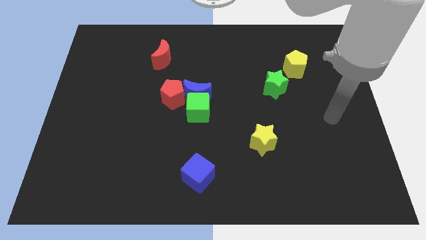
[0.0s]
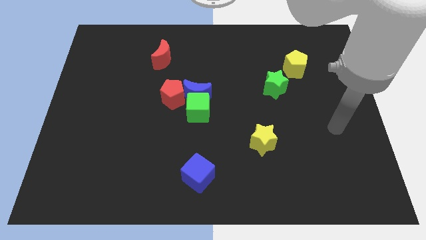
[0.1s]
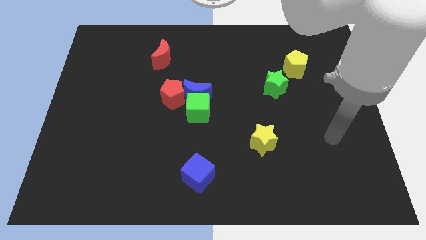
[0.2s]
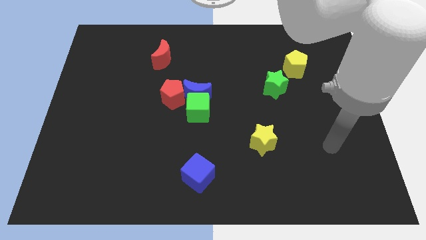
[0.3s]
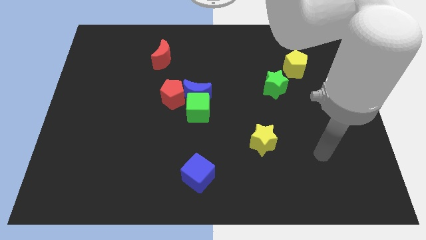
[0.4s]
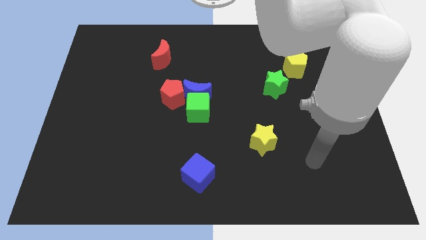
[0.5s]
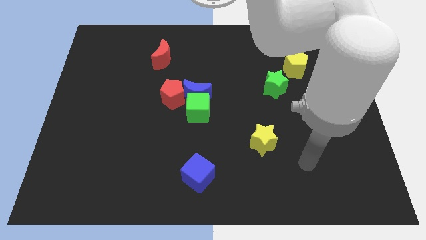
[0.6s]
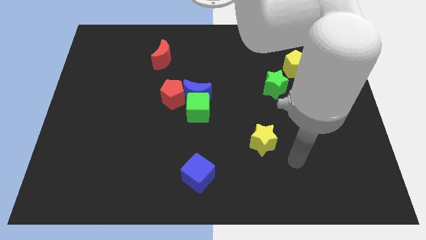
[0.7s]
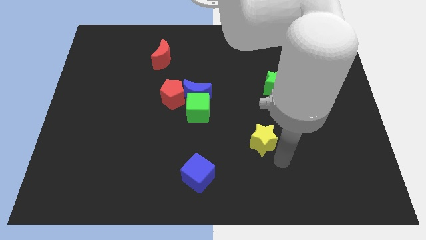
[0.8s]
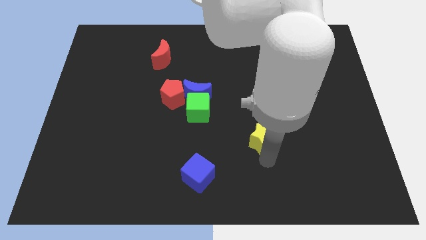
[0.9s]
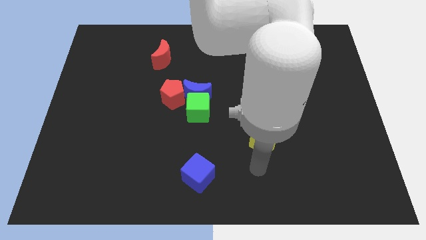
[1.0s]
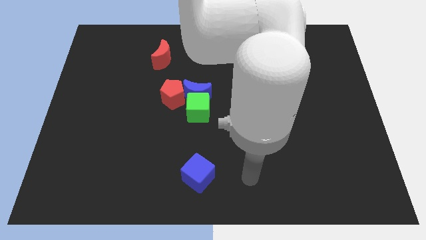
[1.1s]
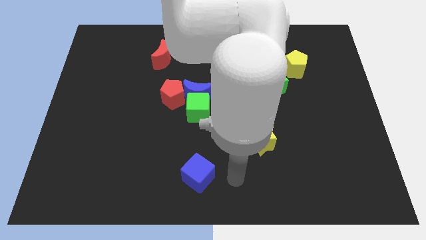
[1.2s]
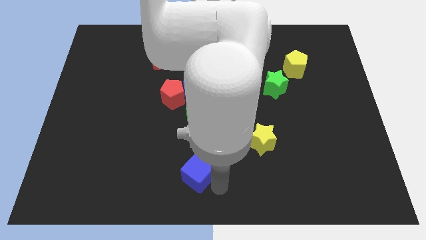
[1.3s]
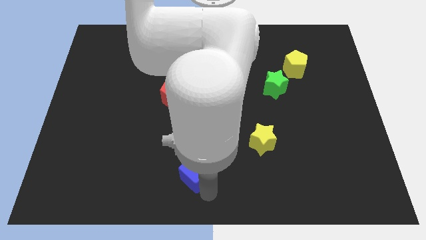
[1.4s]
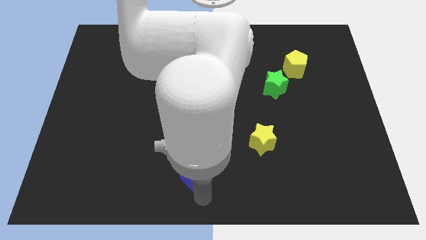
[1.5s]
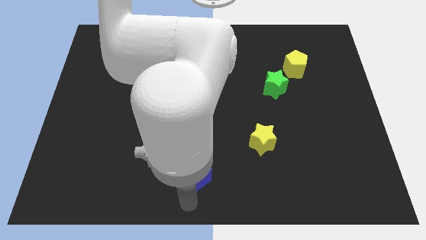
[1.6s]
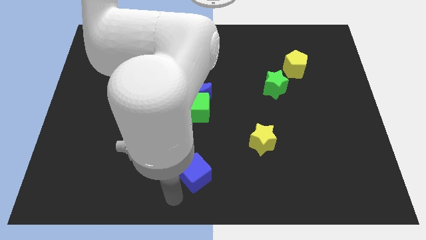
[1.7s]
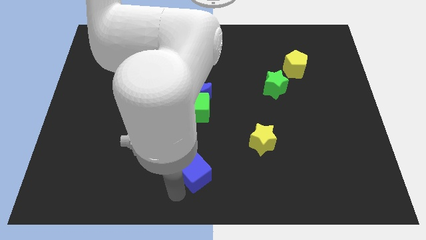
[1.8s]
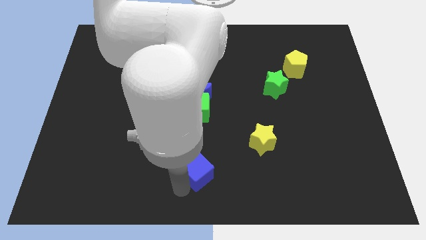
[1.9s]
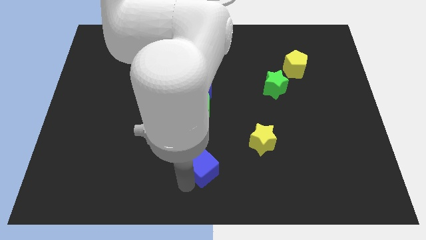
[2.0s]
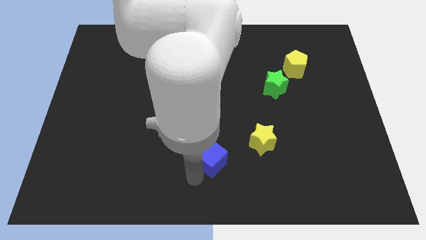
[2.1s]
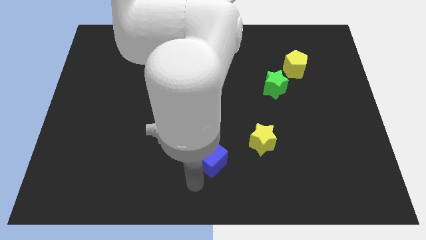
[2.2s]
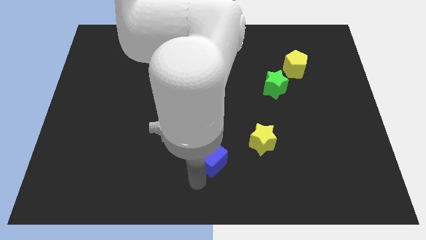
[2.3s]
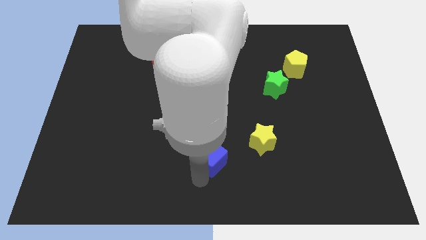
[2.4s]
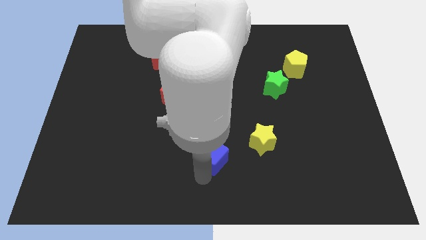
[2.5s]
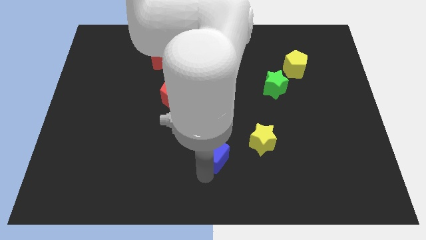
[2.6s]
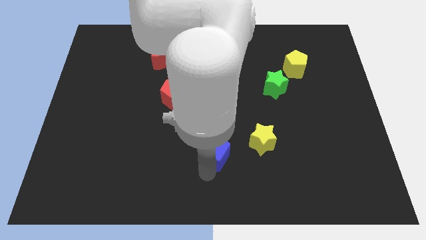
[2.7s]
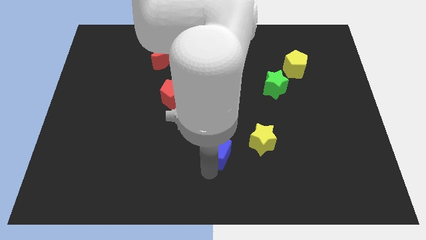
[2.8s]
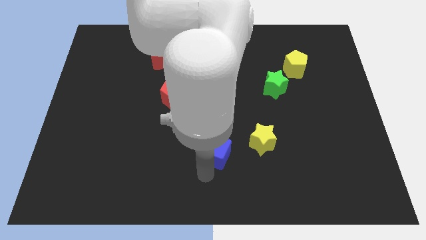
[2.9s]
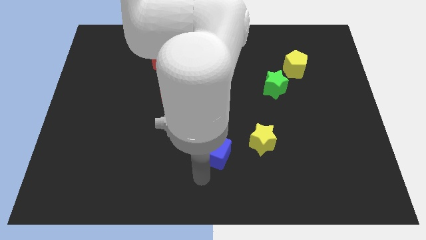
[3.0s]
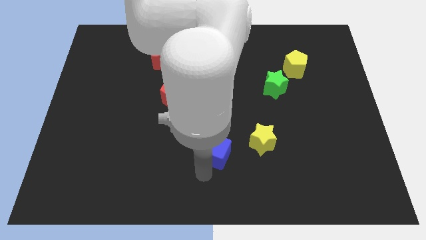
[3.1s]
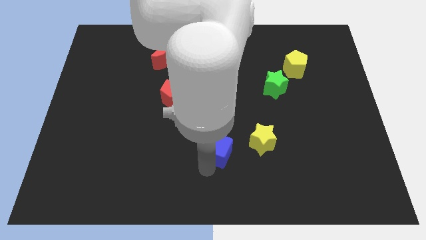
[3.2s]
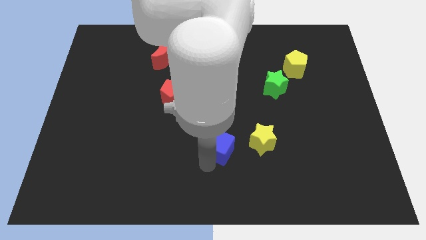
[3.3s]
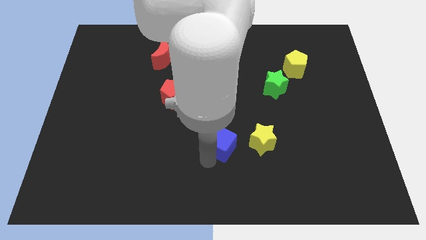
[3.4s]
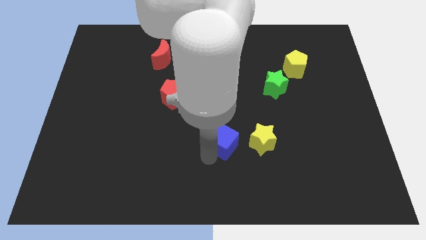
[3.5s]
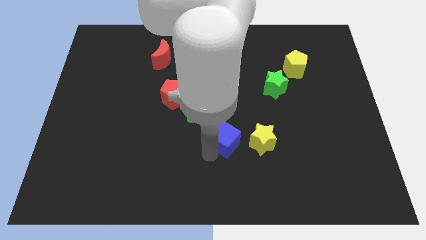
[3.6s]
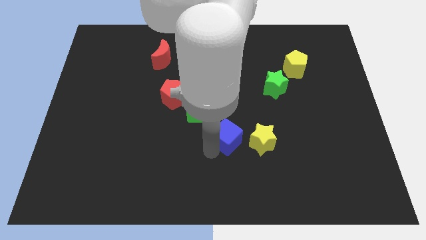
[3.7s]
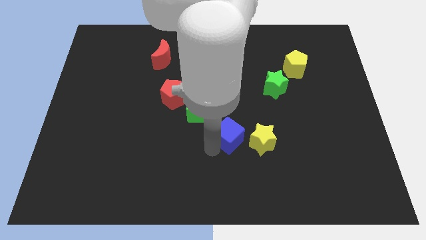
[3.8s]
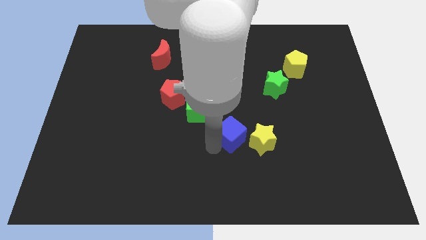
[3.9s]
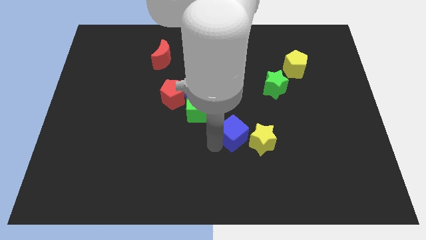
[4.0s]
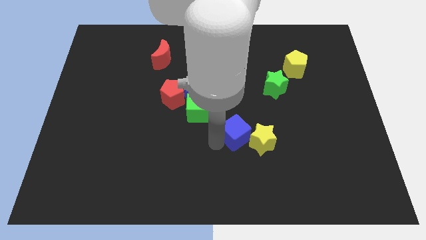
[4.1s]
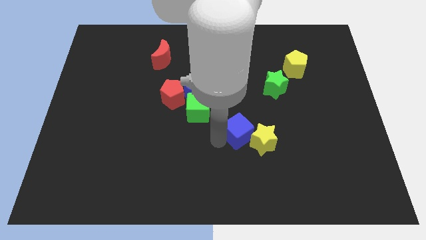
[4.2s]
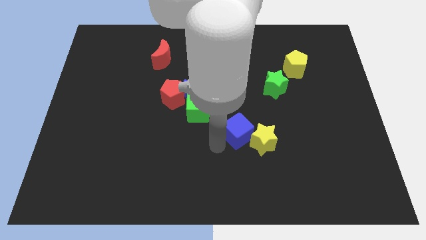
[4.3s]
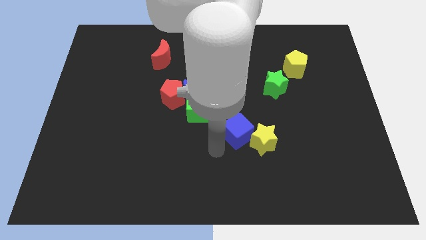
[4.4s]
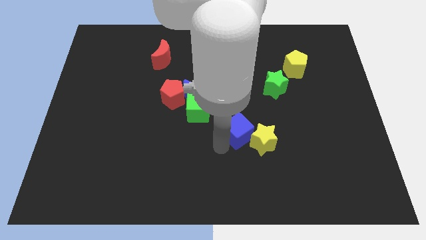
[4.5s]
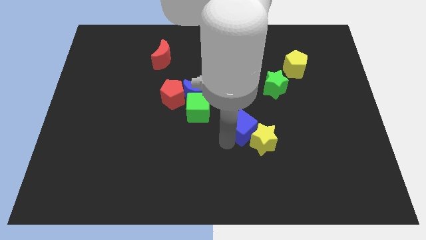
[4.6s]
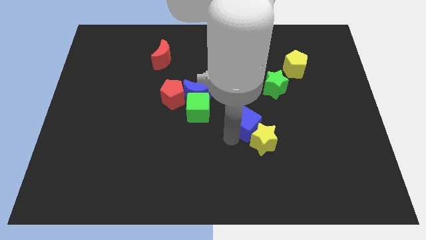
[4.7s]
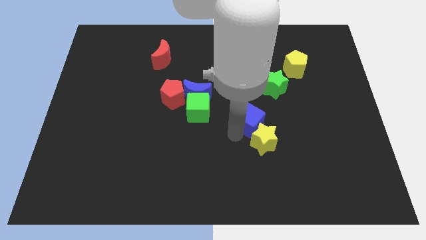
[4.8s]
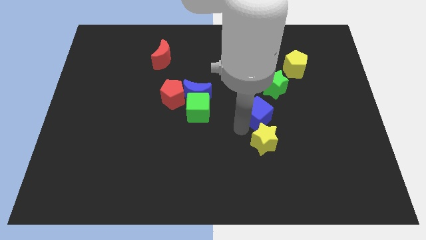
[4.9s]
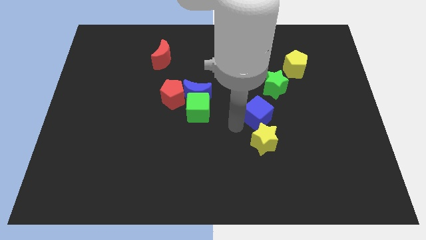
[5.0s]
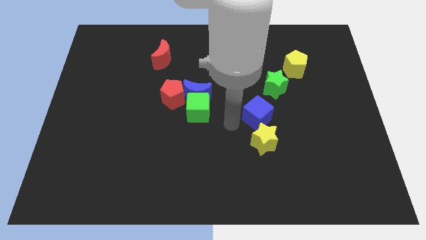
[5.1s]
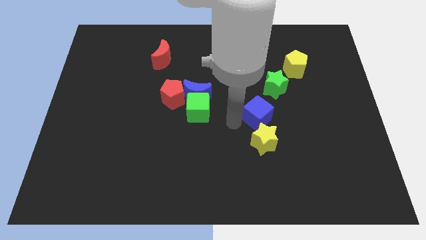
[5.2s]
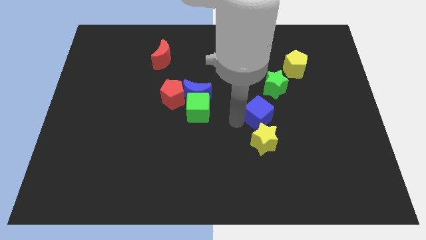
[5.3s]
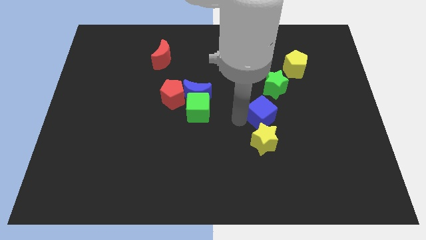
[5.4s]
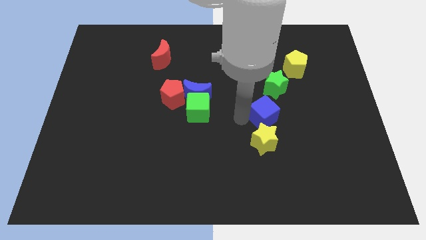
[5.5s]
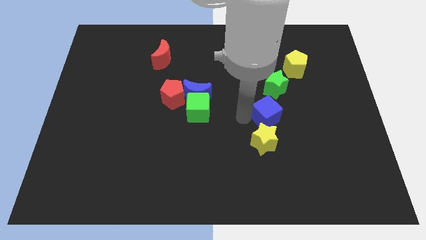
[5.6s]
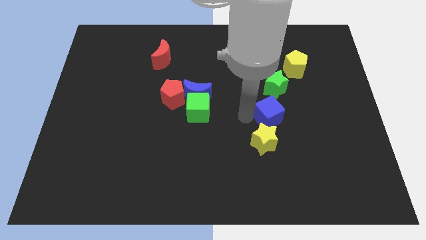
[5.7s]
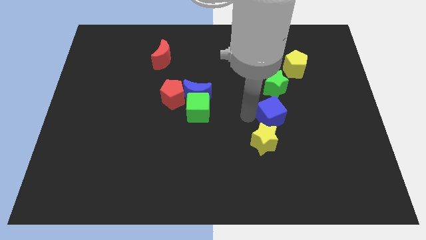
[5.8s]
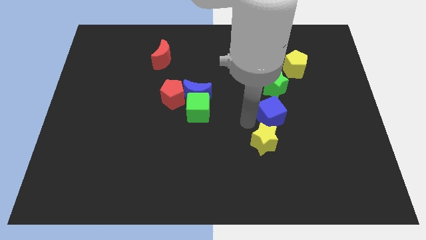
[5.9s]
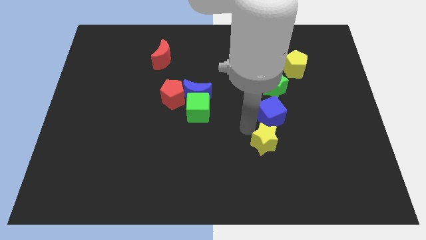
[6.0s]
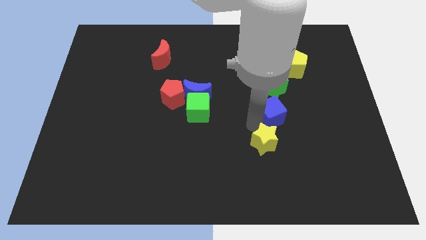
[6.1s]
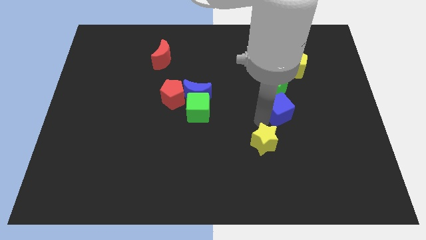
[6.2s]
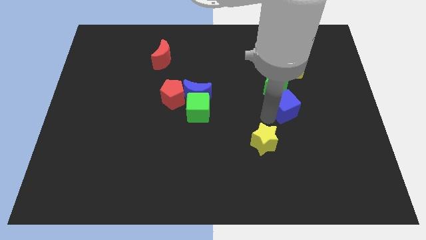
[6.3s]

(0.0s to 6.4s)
move the blue cube to the bottom side of the yellow pentagon

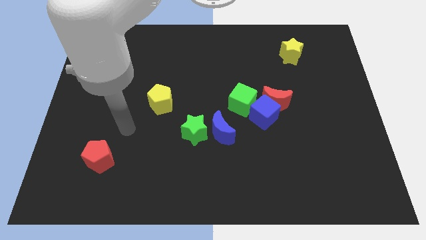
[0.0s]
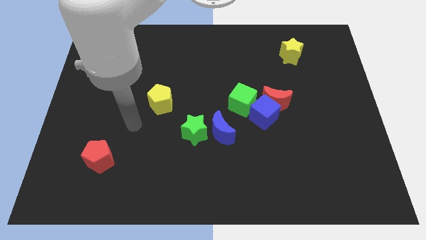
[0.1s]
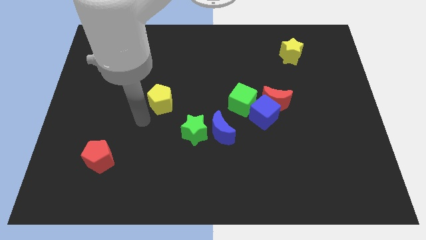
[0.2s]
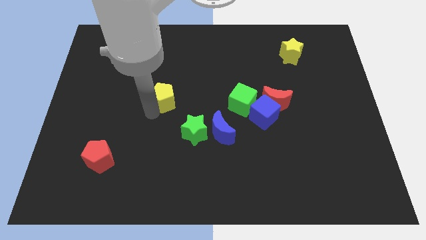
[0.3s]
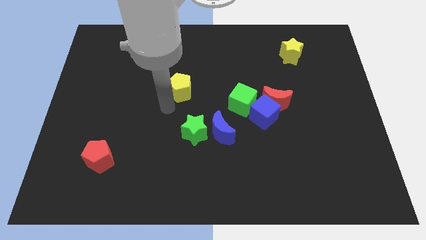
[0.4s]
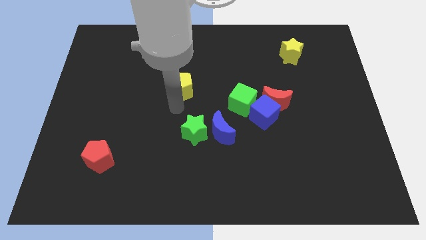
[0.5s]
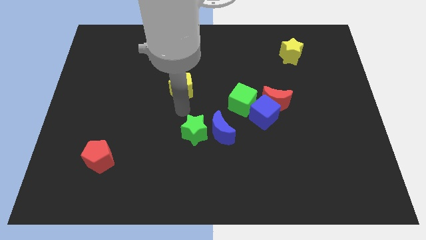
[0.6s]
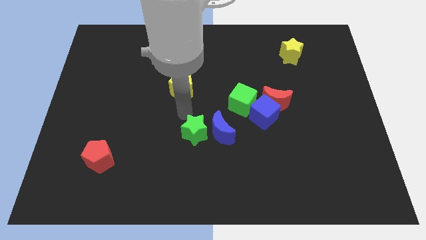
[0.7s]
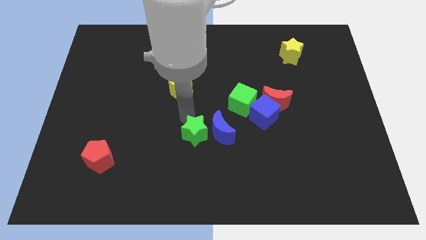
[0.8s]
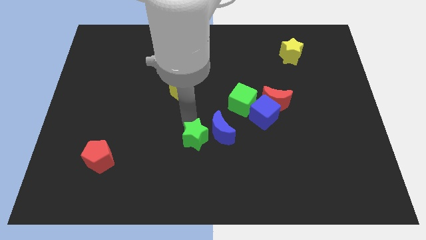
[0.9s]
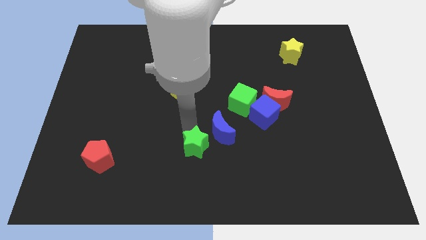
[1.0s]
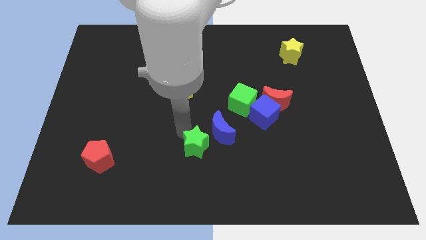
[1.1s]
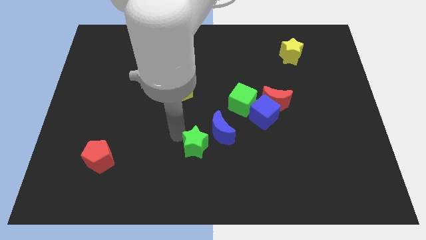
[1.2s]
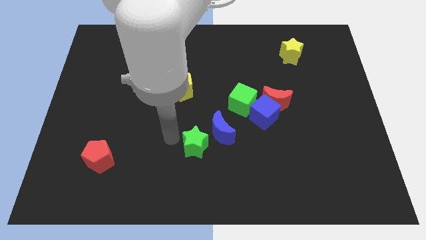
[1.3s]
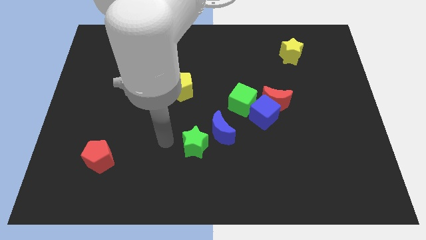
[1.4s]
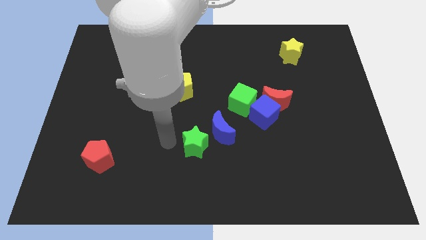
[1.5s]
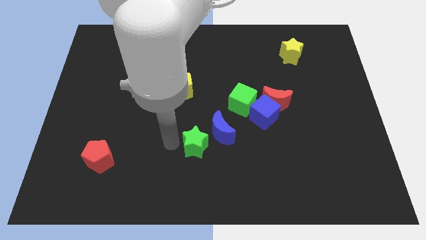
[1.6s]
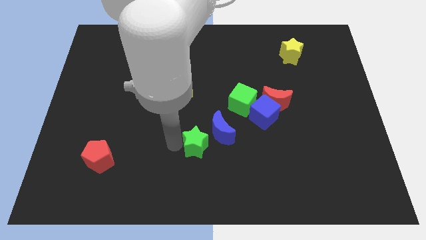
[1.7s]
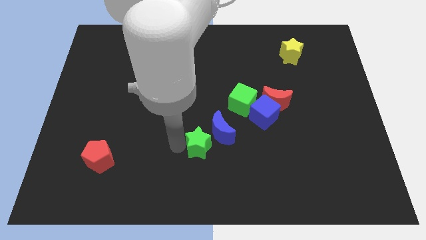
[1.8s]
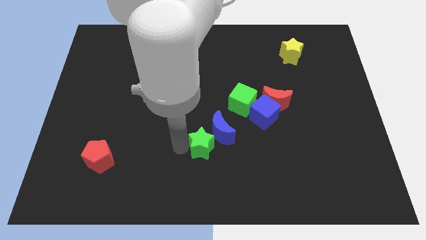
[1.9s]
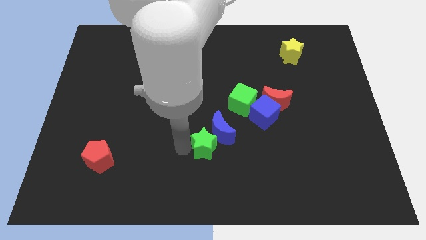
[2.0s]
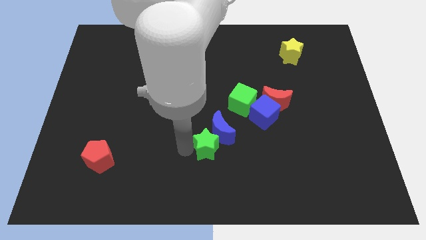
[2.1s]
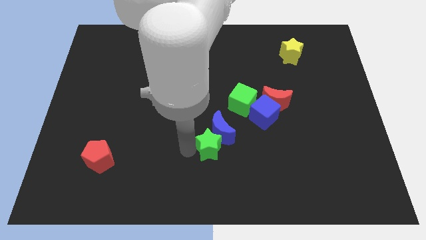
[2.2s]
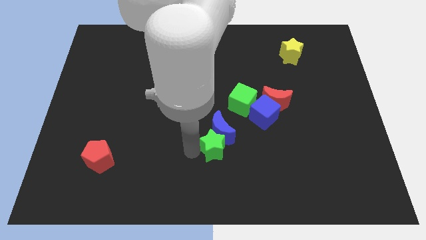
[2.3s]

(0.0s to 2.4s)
push the green star diagonally down and to the right of the blue moon
